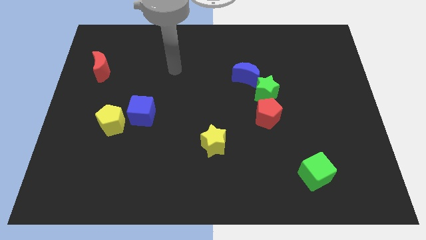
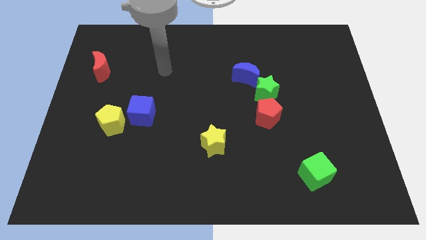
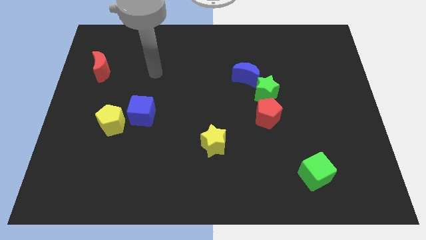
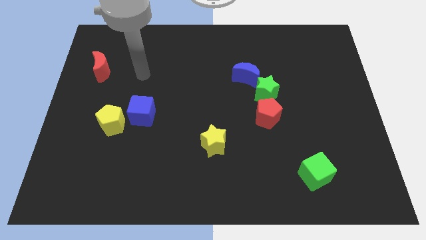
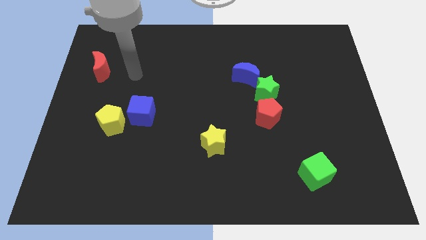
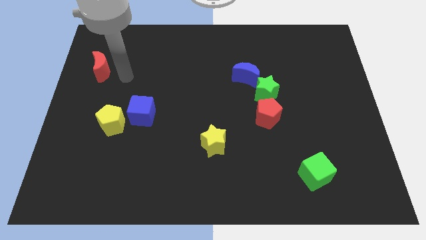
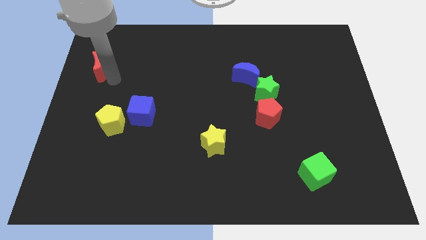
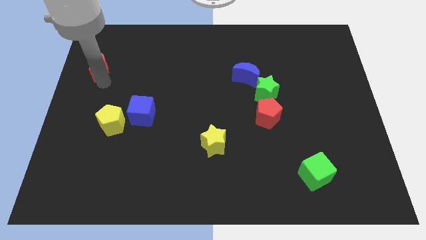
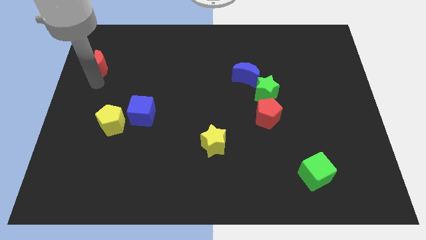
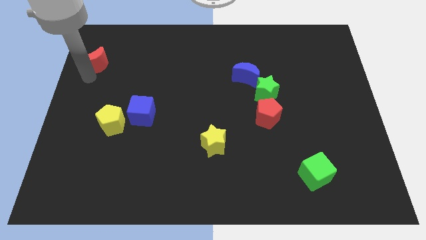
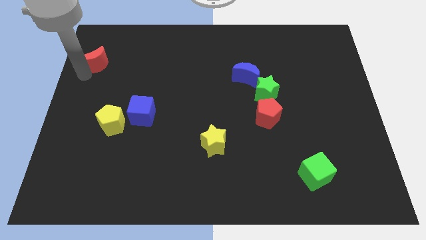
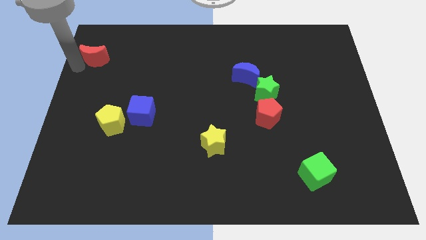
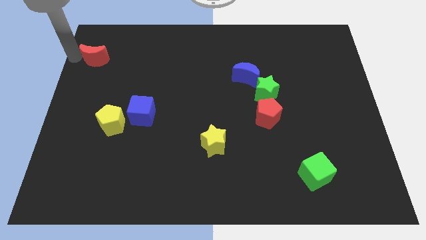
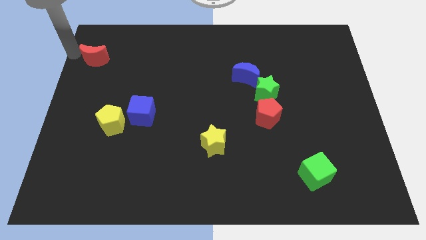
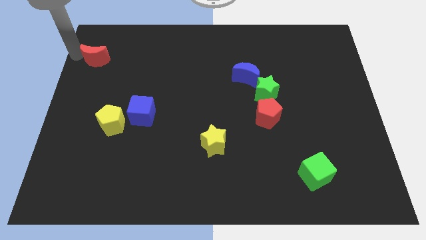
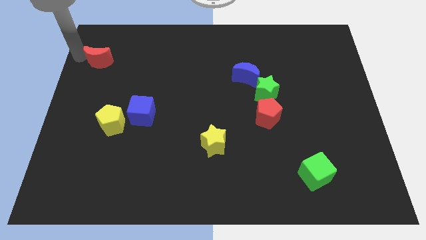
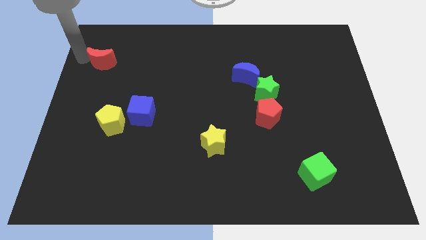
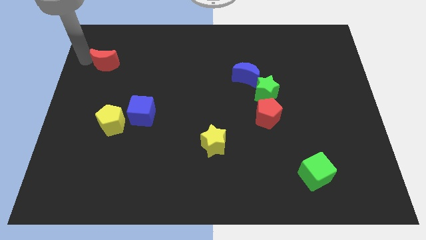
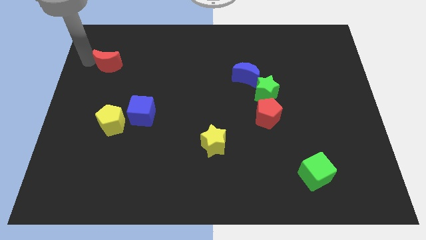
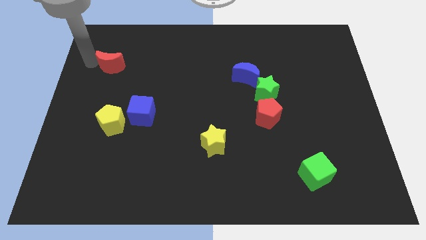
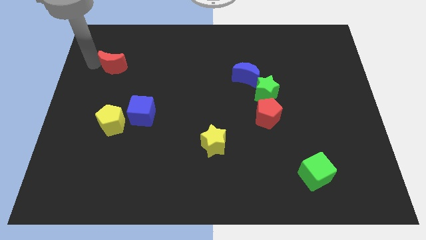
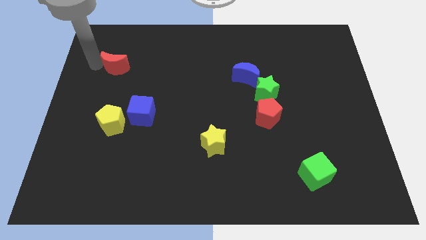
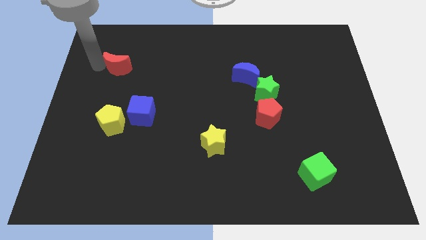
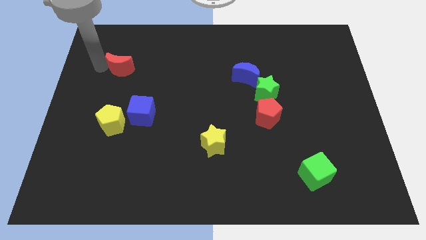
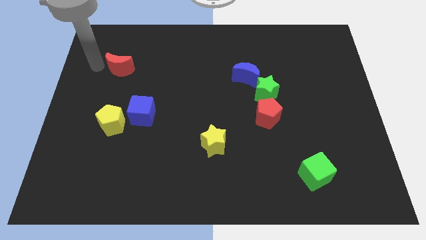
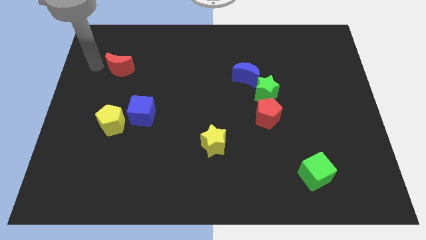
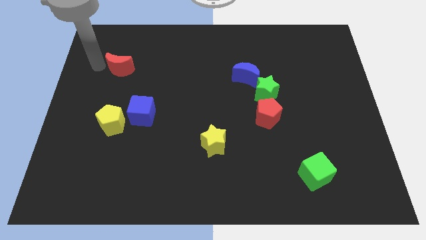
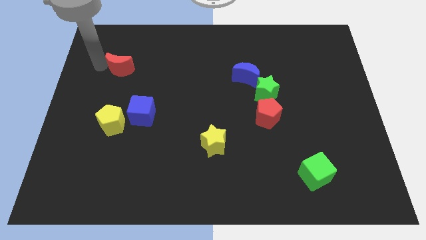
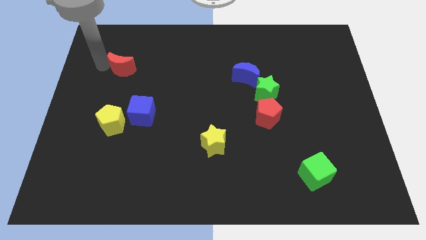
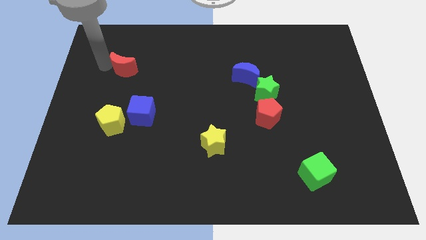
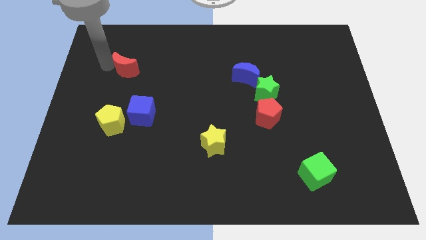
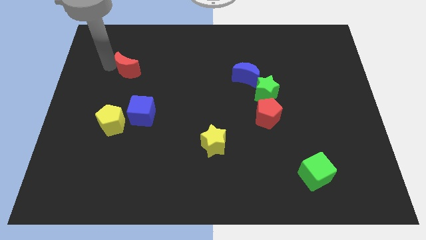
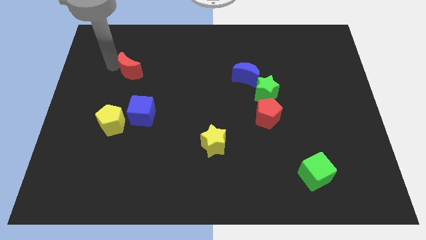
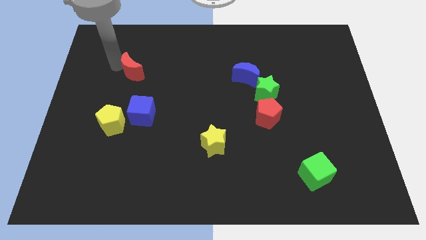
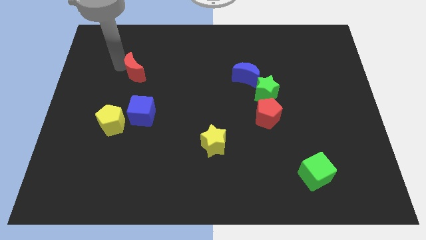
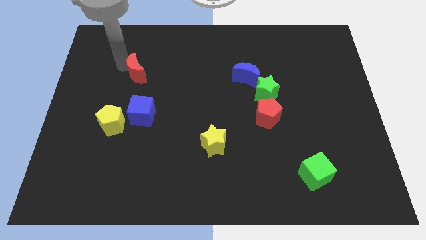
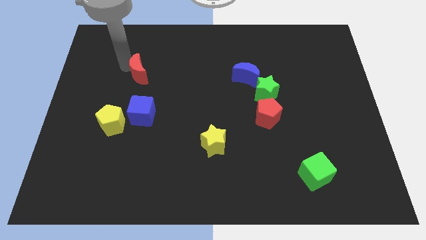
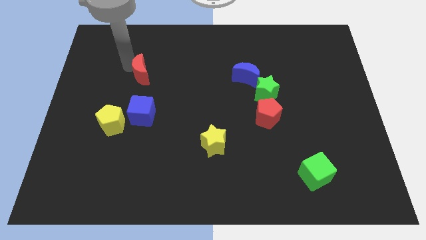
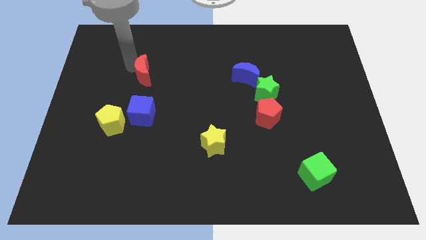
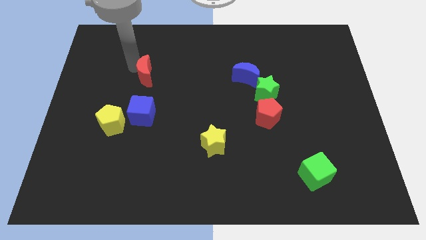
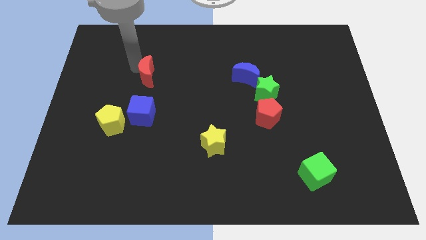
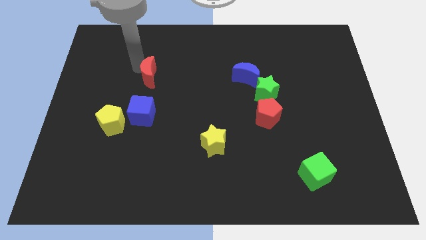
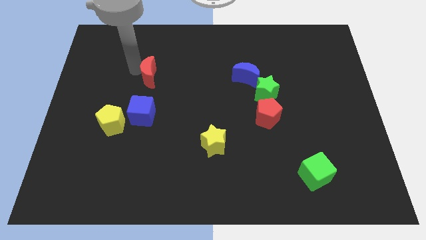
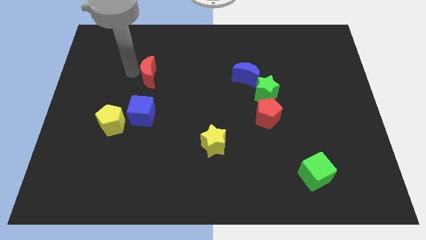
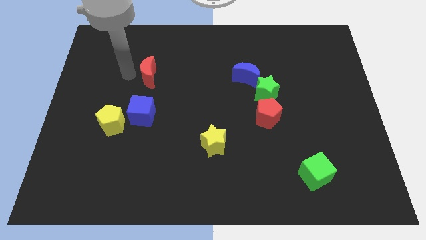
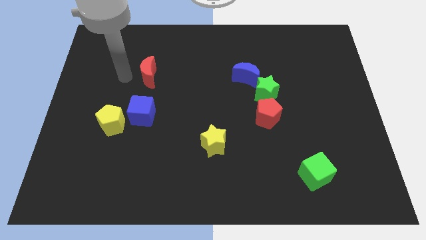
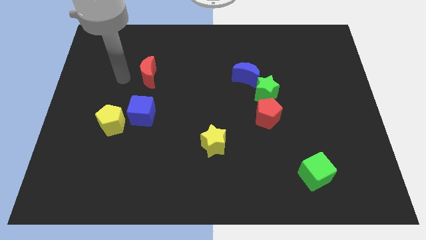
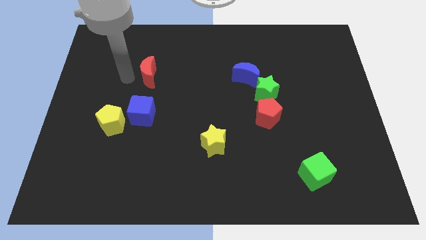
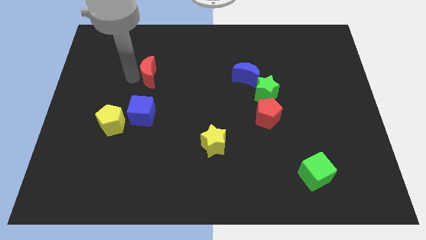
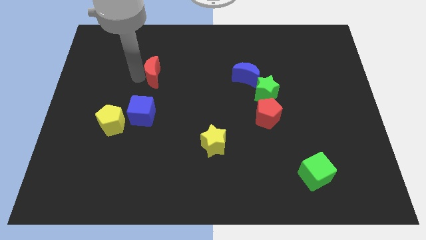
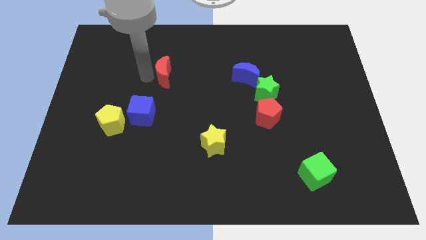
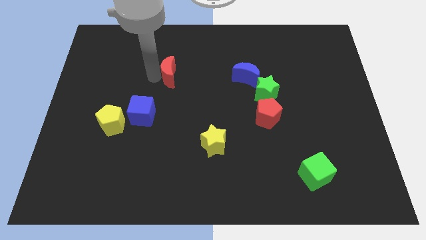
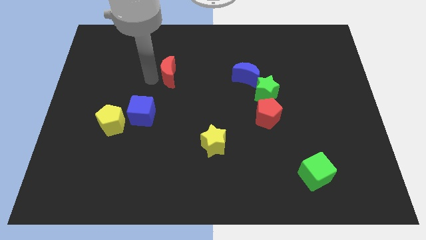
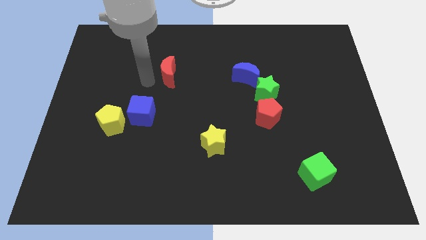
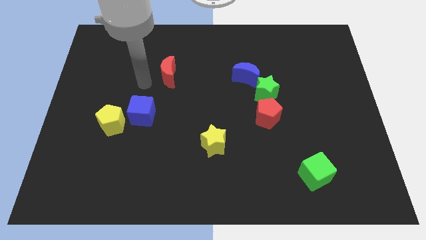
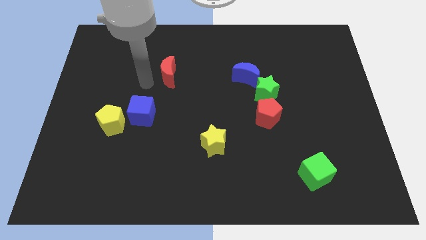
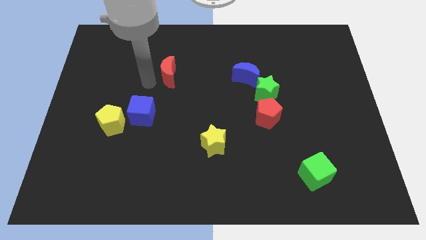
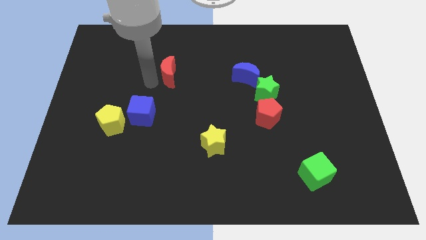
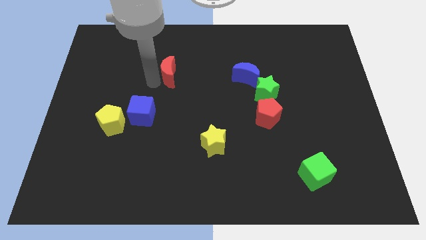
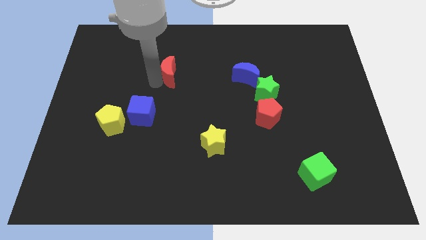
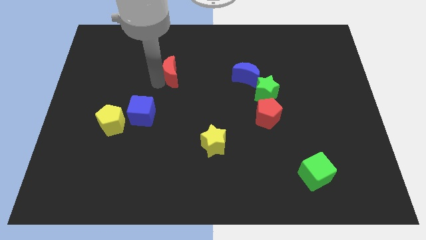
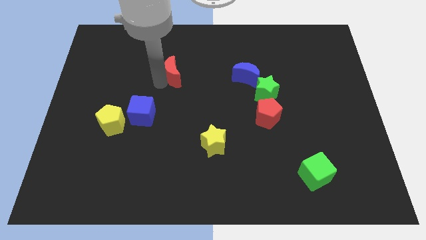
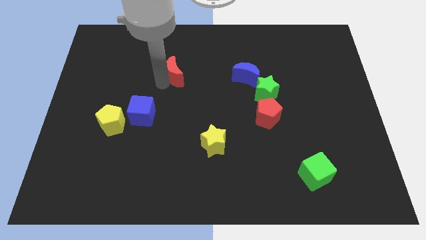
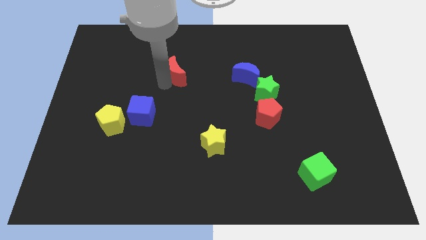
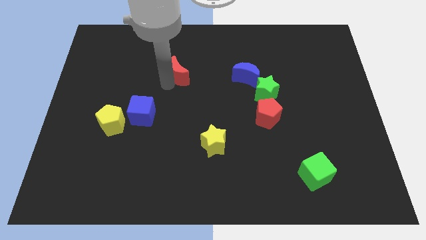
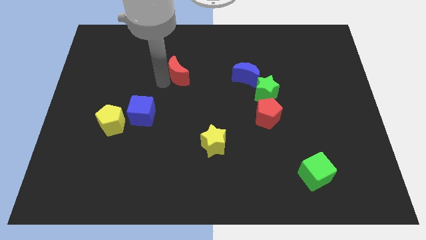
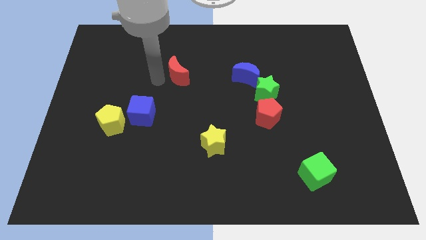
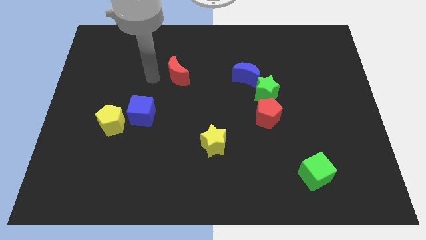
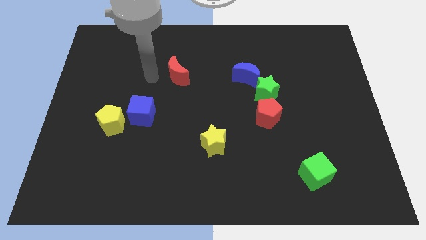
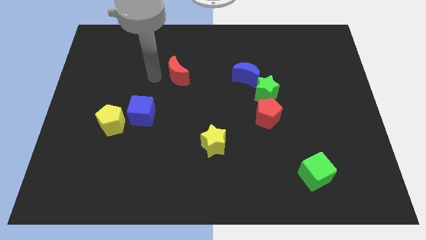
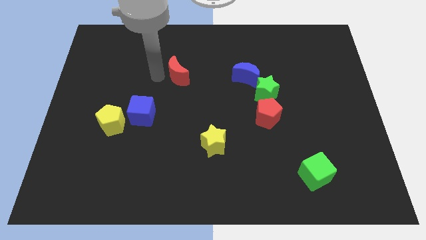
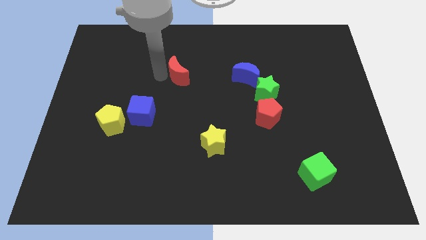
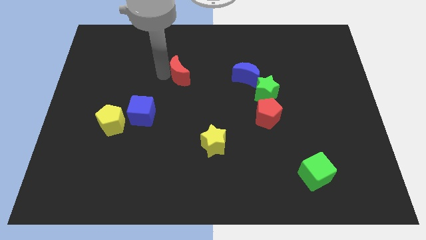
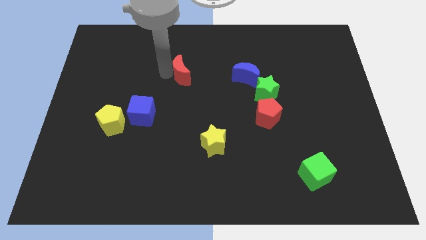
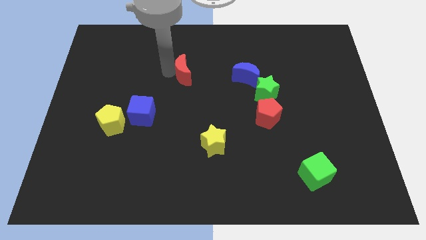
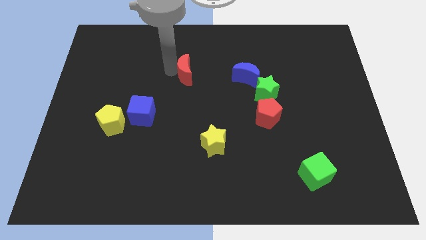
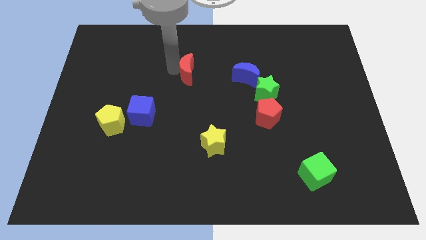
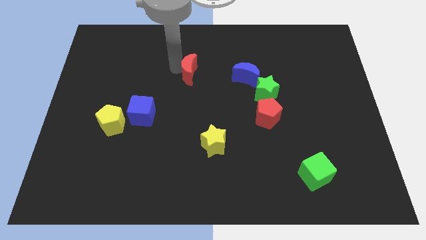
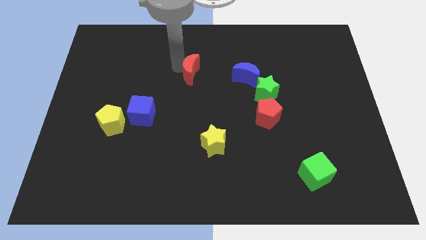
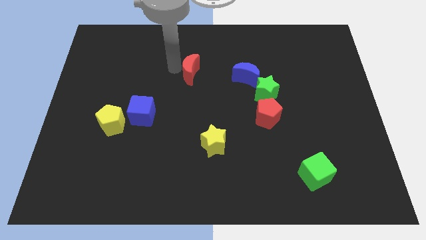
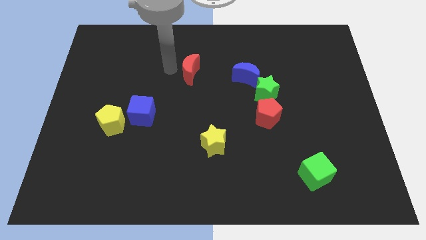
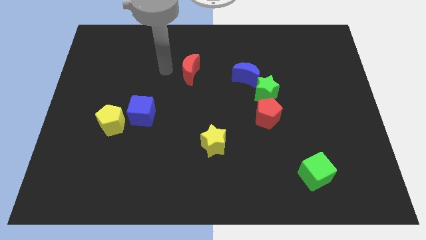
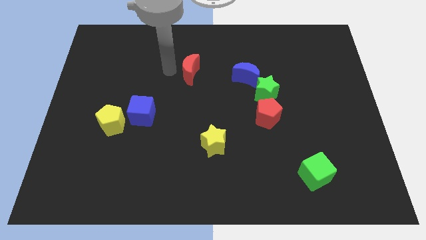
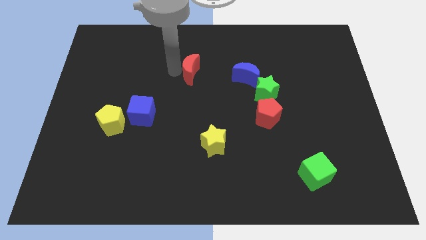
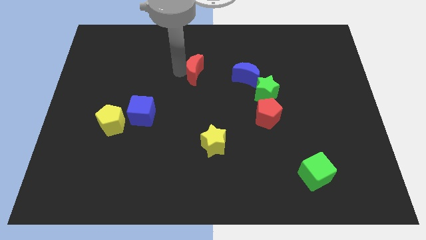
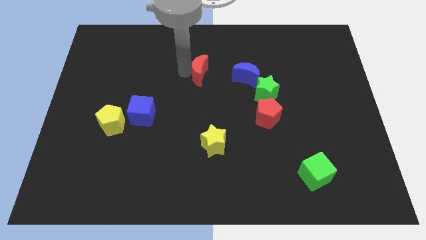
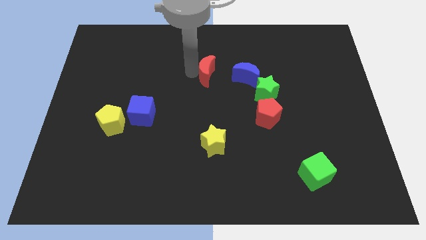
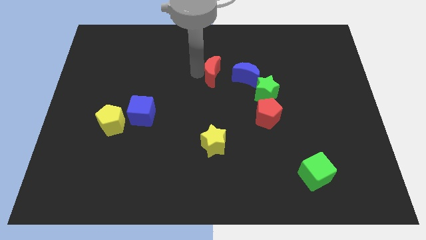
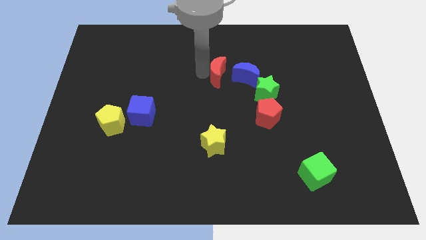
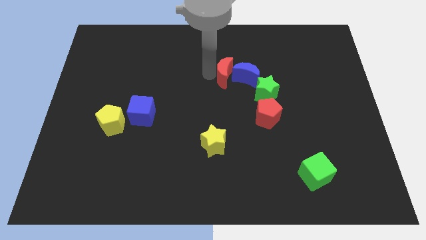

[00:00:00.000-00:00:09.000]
move the red moon next to the blue moon
